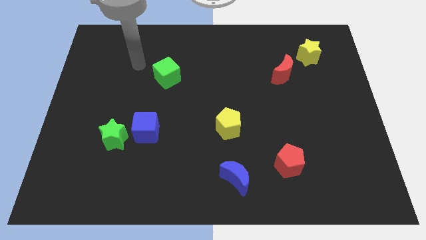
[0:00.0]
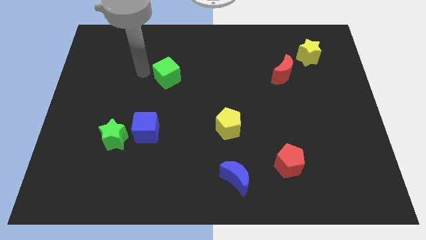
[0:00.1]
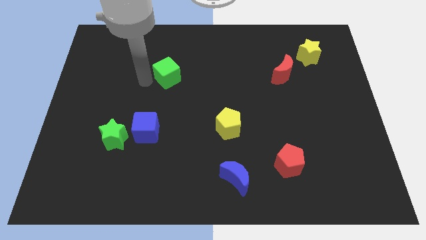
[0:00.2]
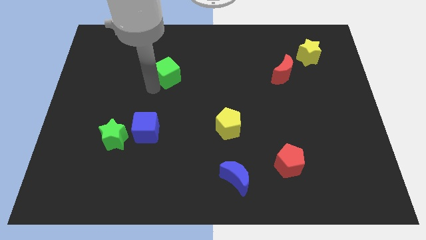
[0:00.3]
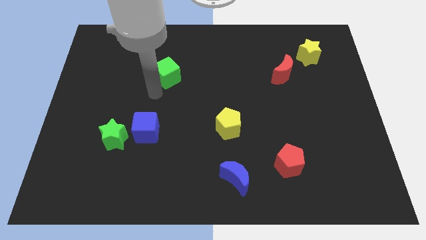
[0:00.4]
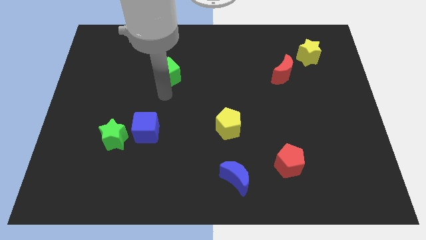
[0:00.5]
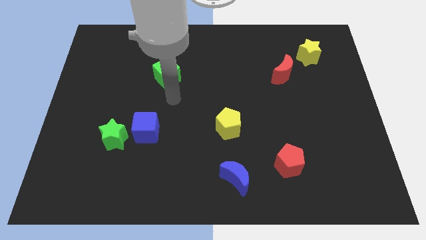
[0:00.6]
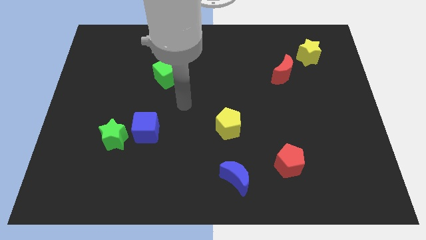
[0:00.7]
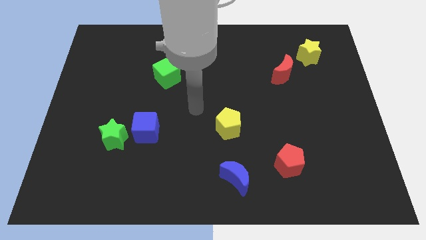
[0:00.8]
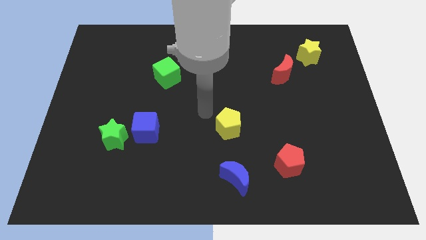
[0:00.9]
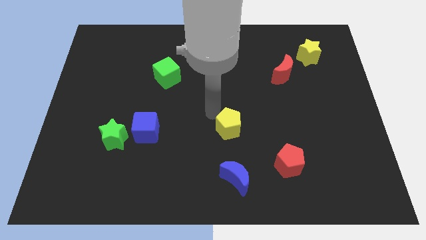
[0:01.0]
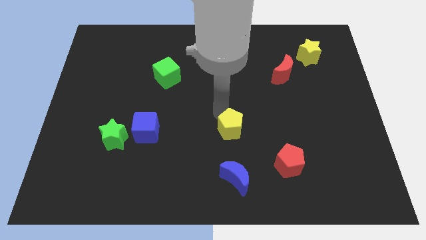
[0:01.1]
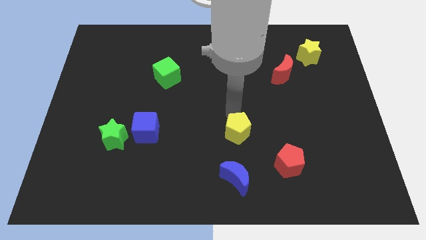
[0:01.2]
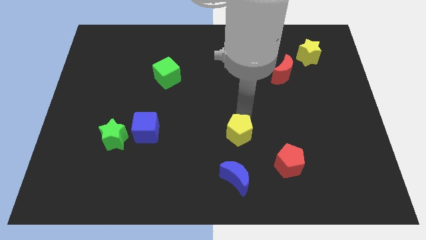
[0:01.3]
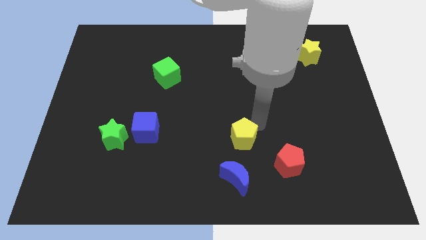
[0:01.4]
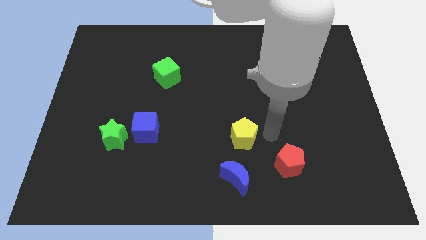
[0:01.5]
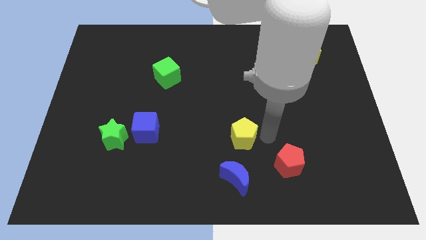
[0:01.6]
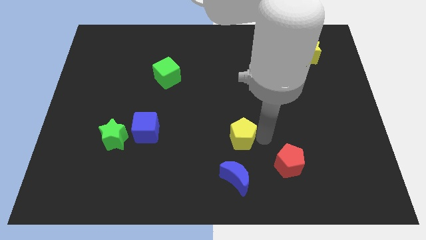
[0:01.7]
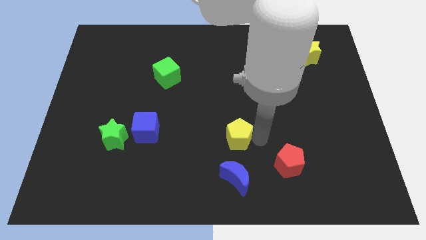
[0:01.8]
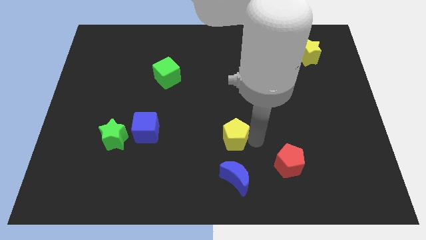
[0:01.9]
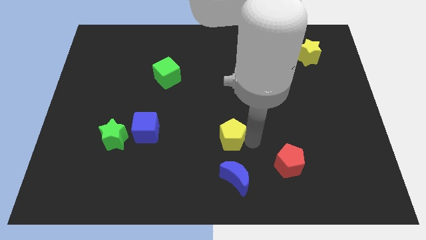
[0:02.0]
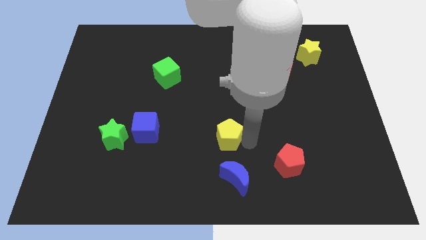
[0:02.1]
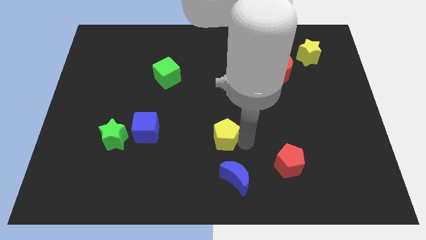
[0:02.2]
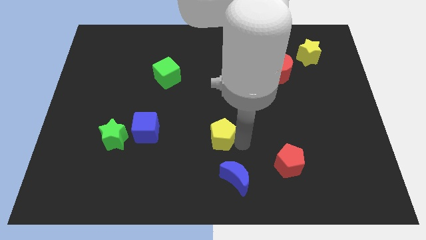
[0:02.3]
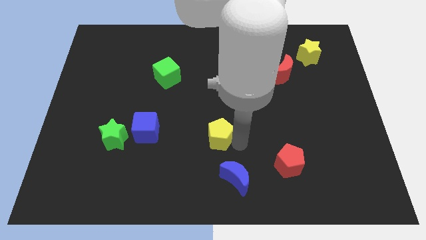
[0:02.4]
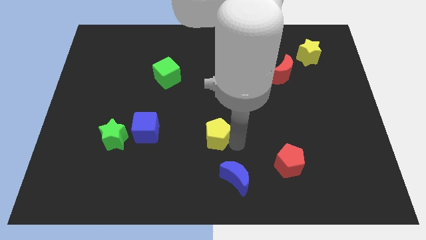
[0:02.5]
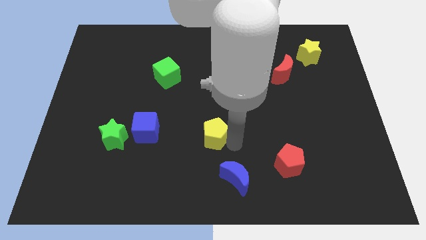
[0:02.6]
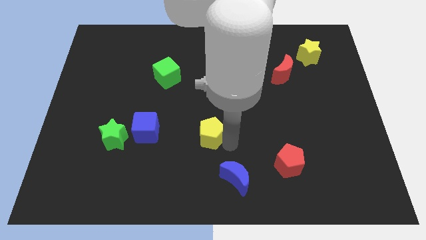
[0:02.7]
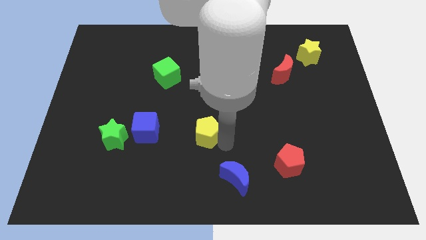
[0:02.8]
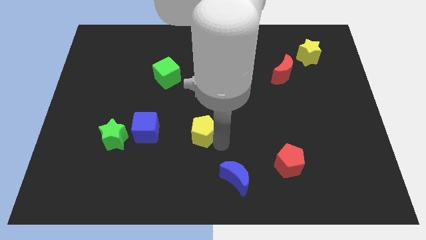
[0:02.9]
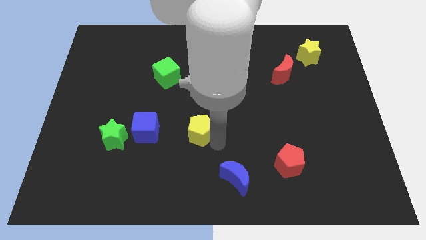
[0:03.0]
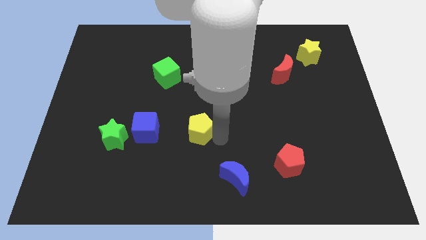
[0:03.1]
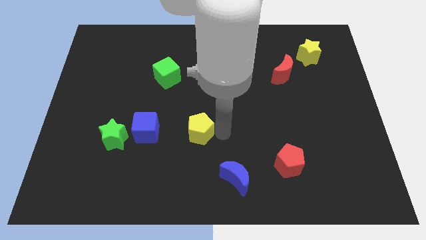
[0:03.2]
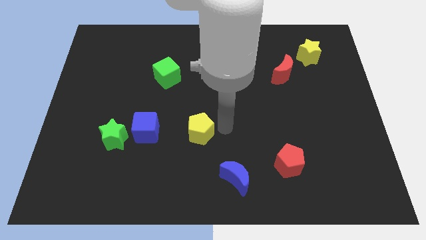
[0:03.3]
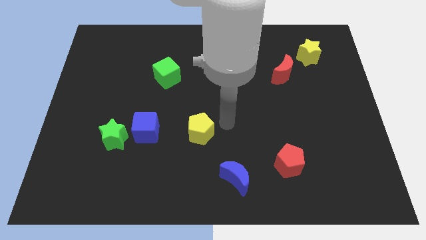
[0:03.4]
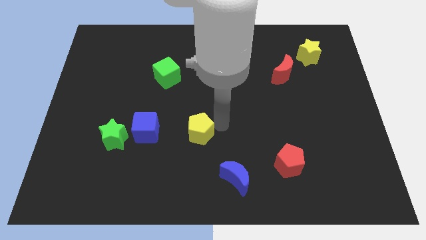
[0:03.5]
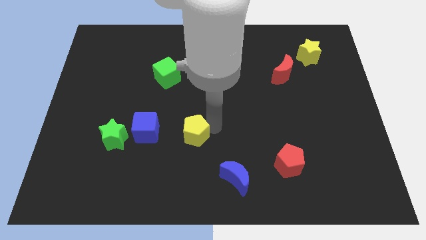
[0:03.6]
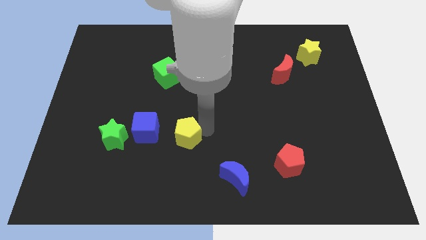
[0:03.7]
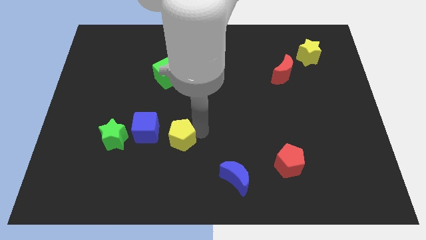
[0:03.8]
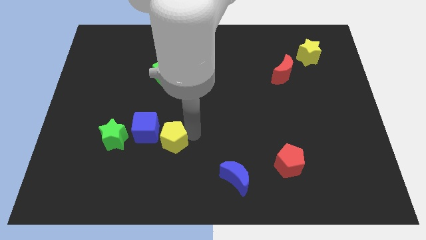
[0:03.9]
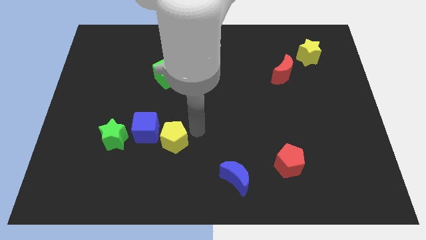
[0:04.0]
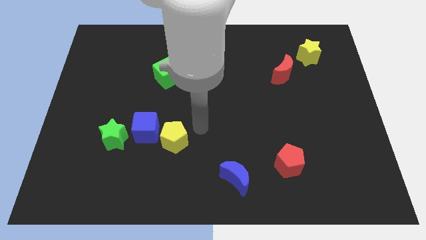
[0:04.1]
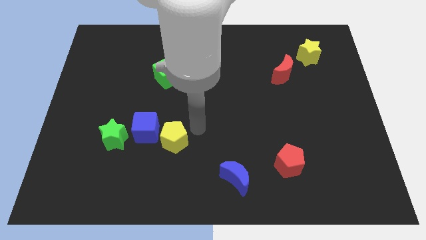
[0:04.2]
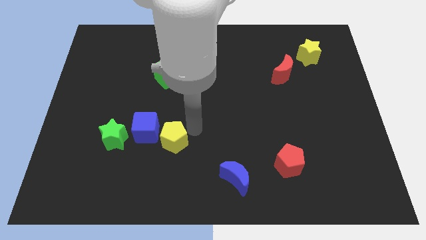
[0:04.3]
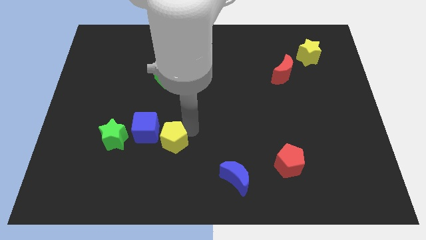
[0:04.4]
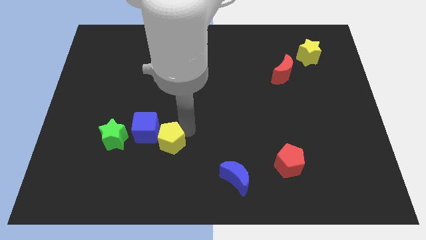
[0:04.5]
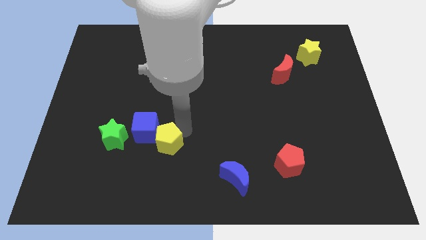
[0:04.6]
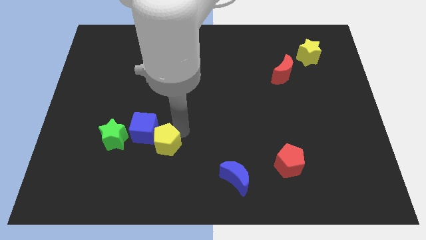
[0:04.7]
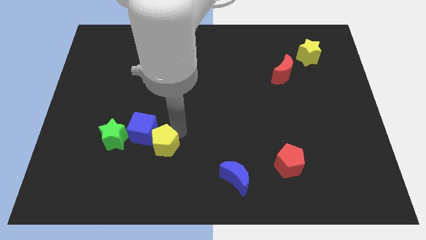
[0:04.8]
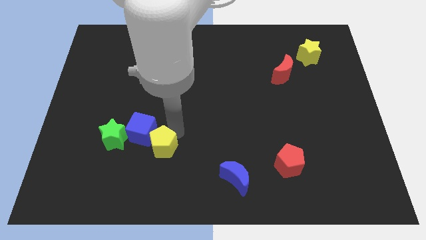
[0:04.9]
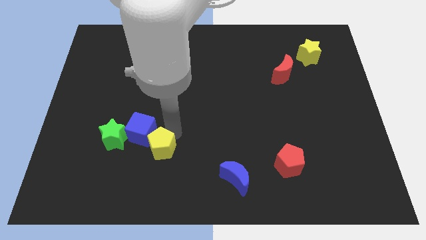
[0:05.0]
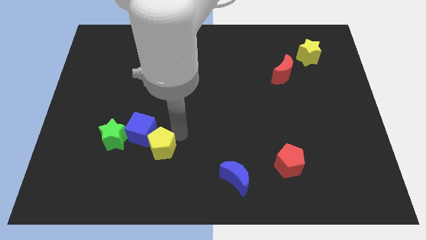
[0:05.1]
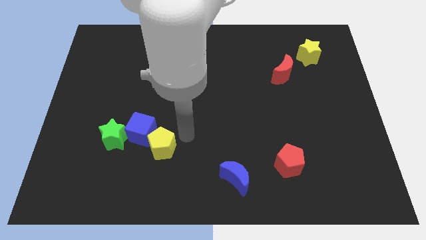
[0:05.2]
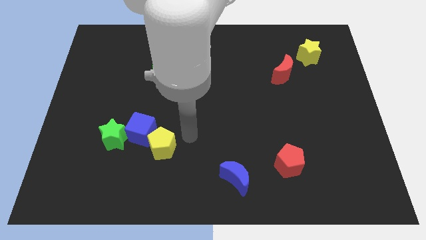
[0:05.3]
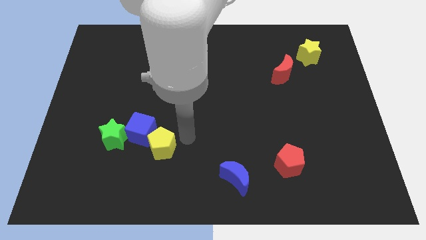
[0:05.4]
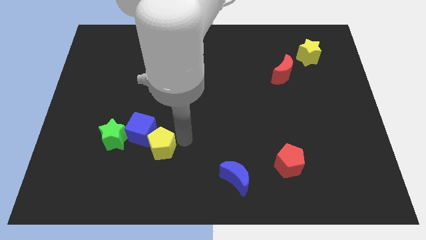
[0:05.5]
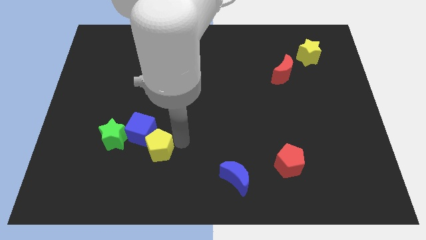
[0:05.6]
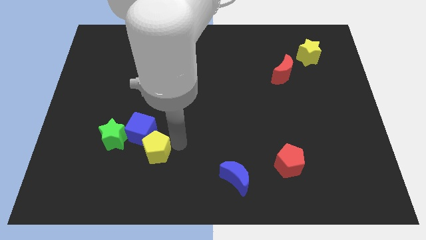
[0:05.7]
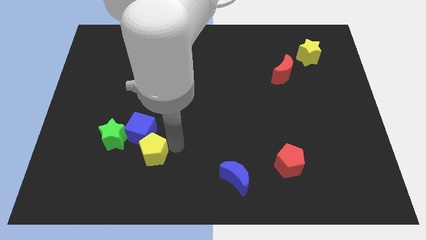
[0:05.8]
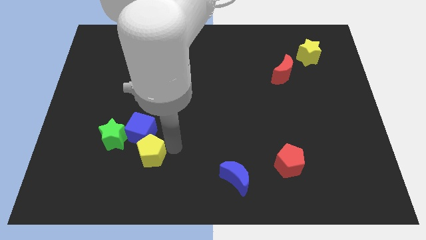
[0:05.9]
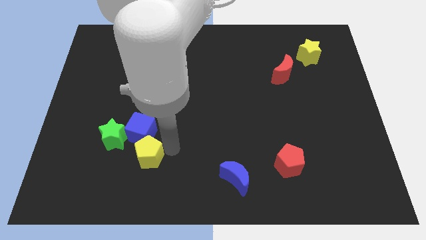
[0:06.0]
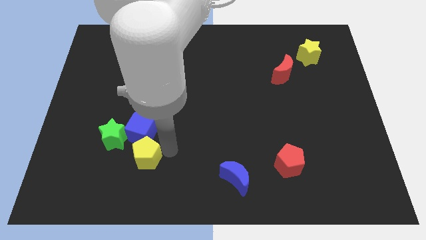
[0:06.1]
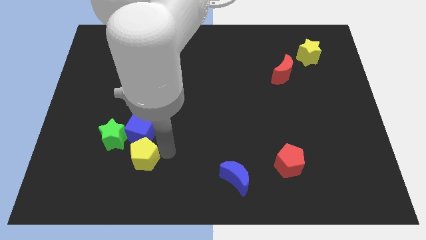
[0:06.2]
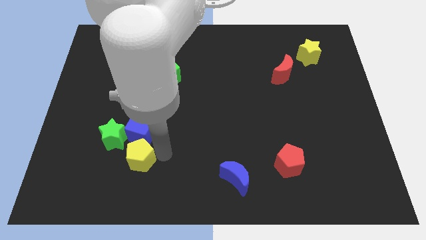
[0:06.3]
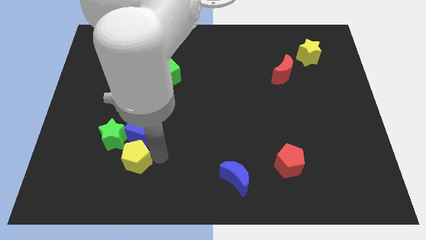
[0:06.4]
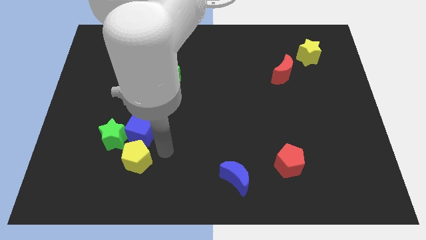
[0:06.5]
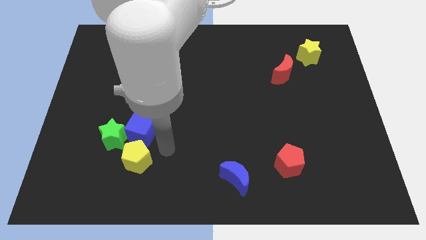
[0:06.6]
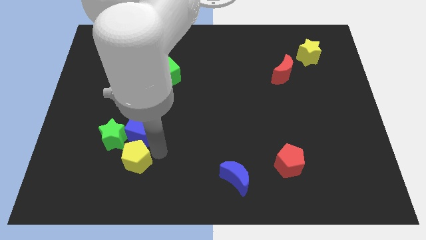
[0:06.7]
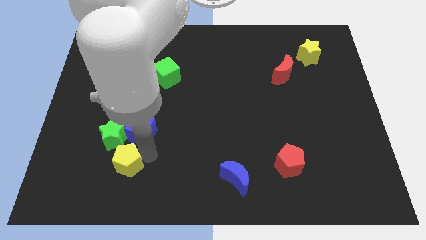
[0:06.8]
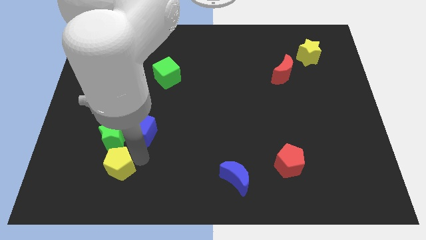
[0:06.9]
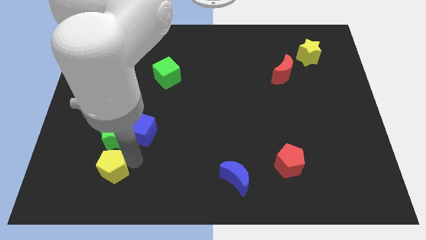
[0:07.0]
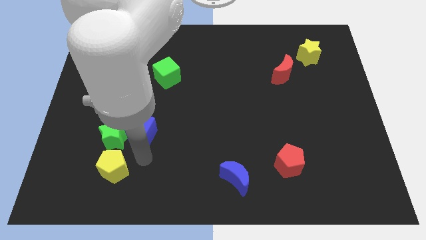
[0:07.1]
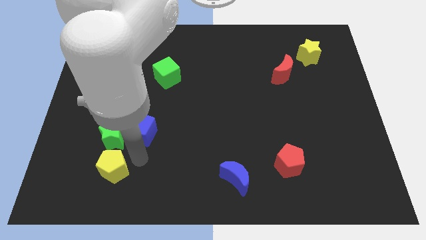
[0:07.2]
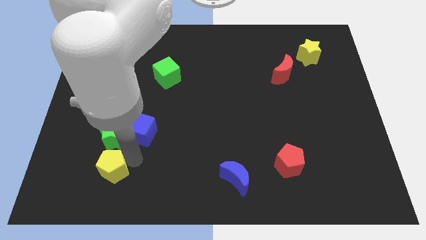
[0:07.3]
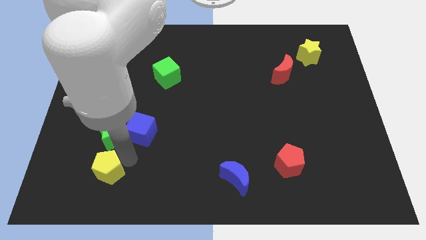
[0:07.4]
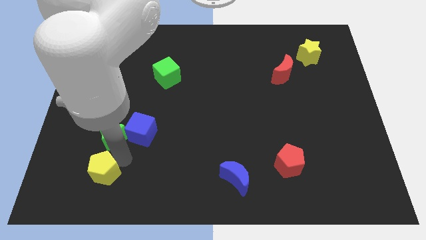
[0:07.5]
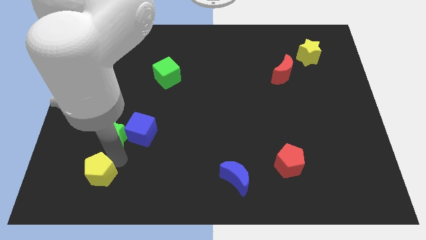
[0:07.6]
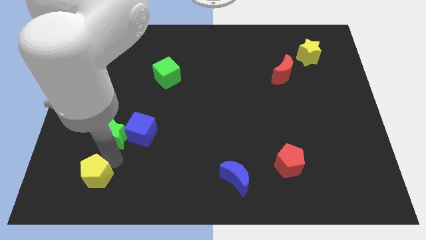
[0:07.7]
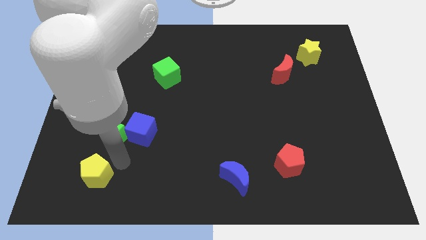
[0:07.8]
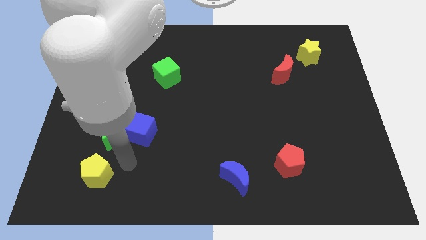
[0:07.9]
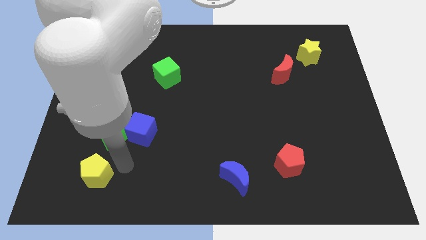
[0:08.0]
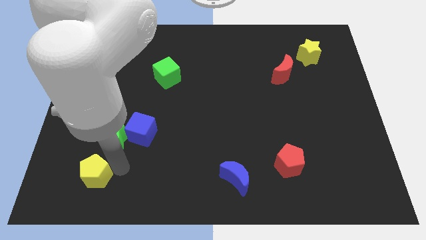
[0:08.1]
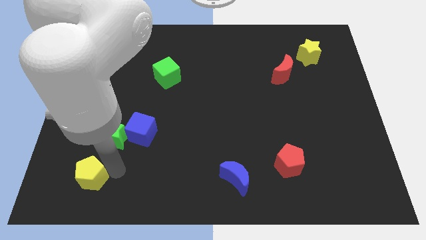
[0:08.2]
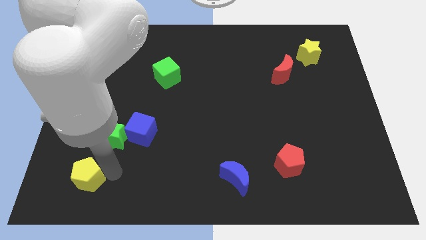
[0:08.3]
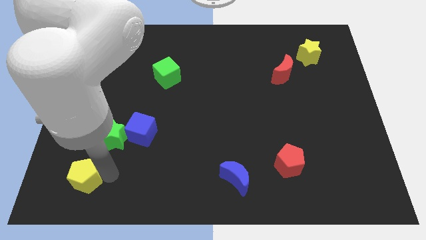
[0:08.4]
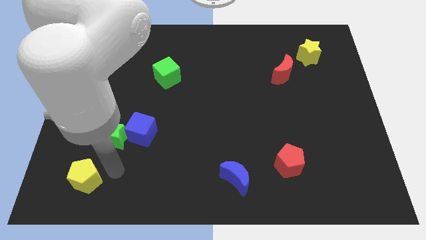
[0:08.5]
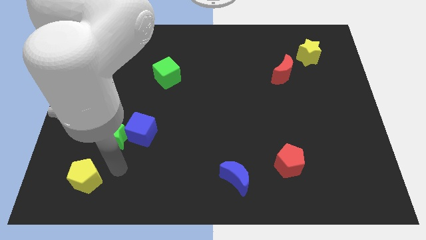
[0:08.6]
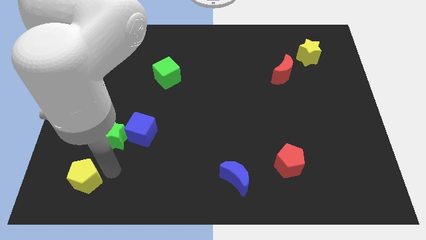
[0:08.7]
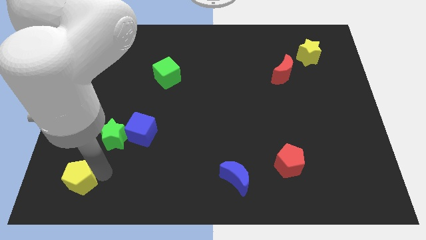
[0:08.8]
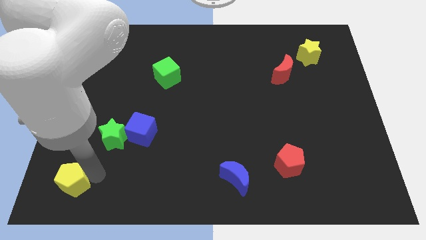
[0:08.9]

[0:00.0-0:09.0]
move the yellow pentagon to the lower left corner
